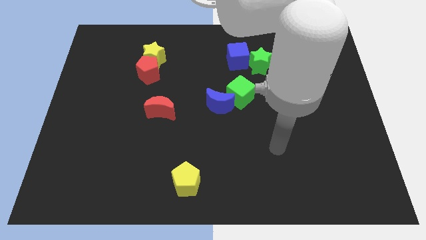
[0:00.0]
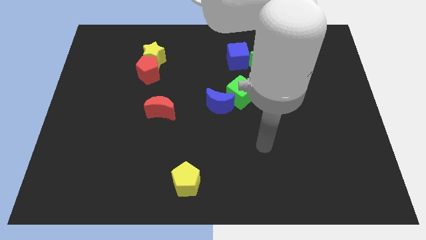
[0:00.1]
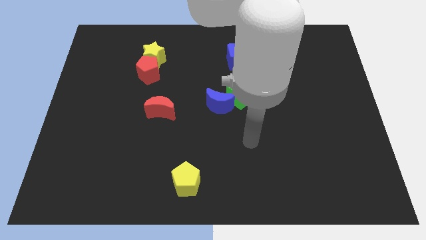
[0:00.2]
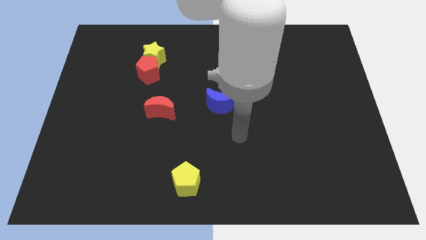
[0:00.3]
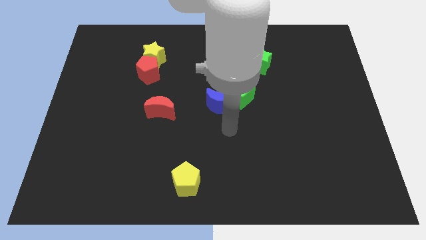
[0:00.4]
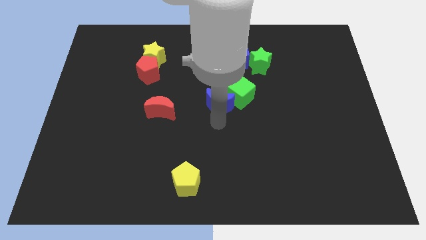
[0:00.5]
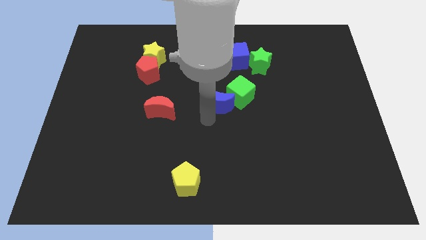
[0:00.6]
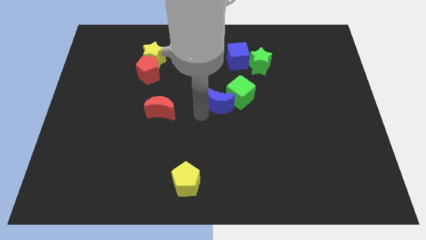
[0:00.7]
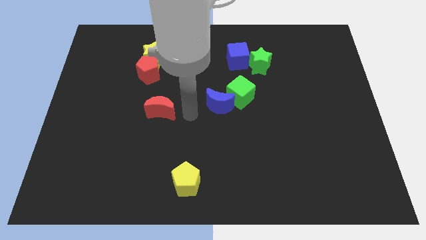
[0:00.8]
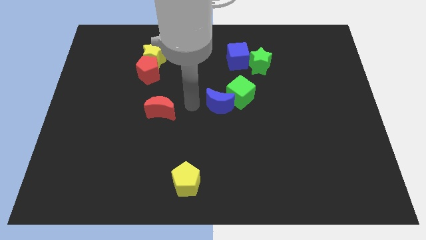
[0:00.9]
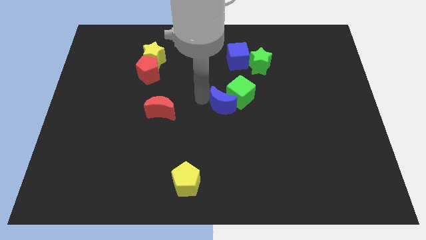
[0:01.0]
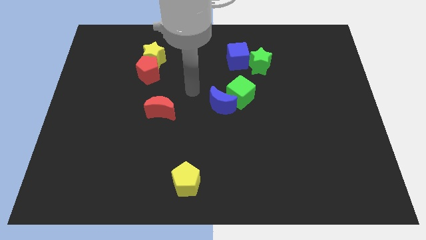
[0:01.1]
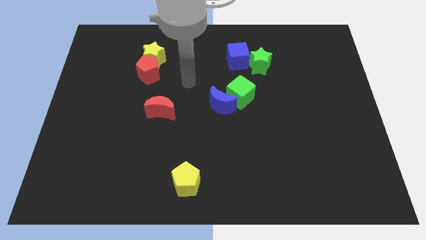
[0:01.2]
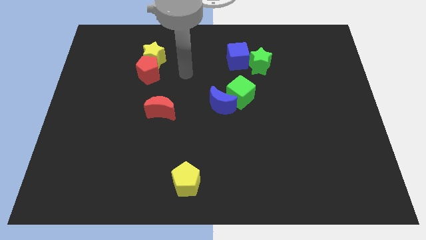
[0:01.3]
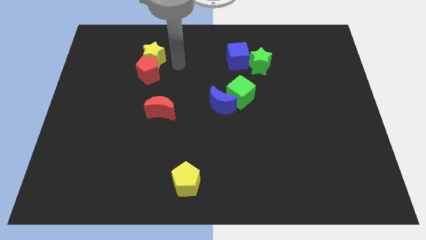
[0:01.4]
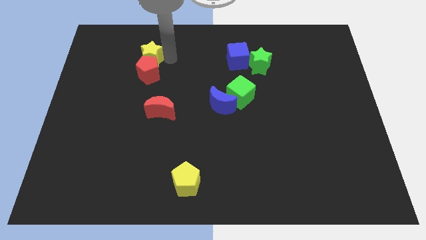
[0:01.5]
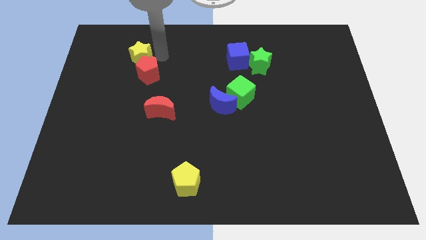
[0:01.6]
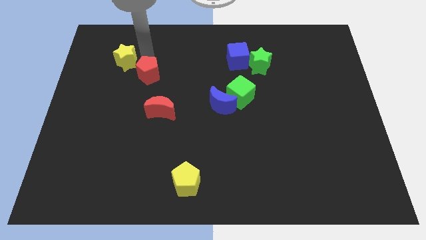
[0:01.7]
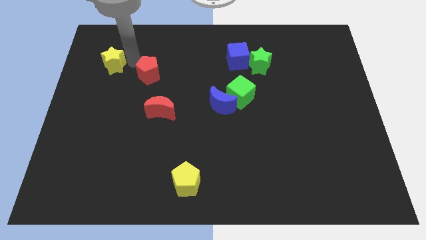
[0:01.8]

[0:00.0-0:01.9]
pull the red pentagon apart from the yellow star

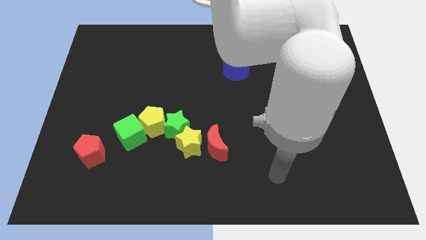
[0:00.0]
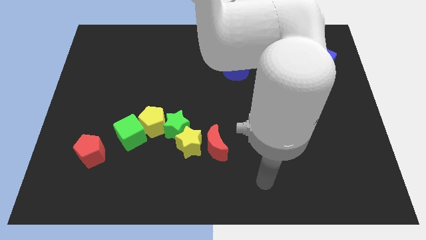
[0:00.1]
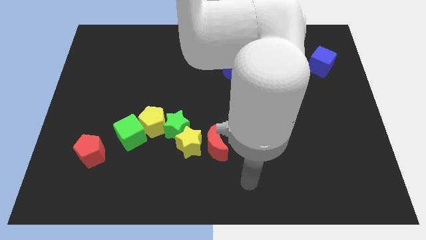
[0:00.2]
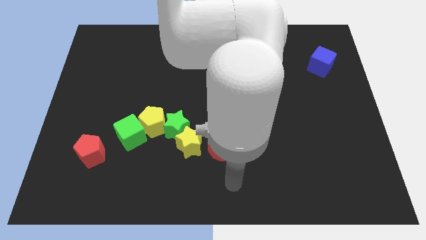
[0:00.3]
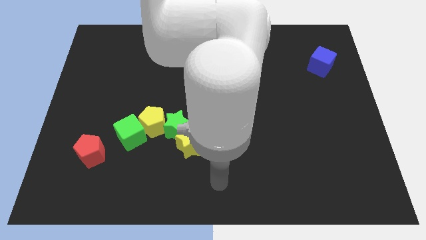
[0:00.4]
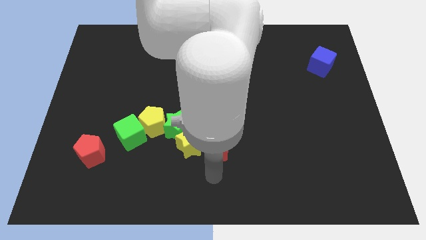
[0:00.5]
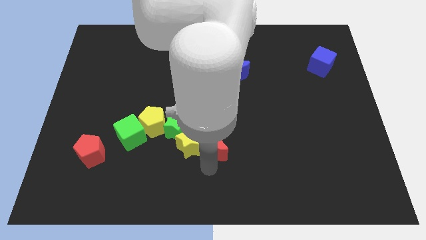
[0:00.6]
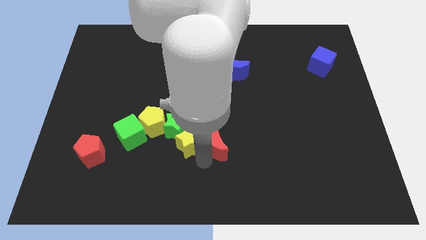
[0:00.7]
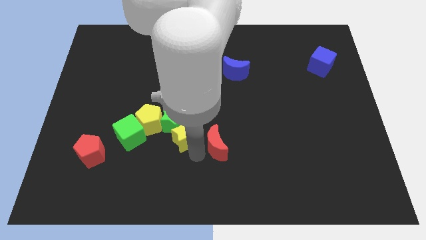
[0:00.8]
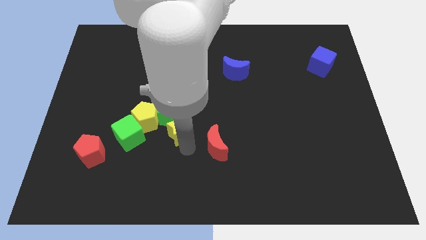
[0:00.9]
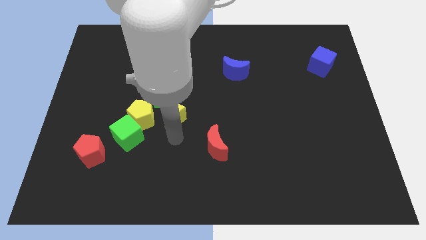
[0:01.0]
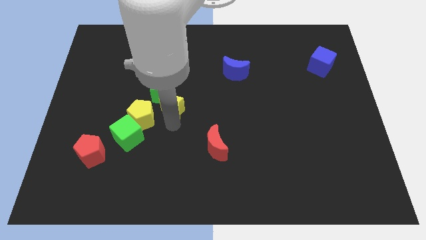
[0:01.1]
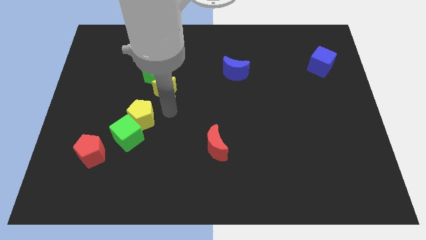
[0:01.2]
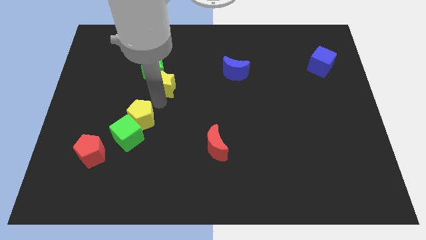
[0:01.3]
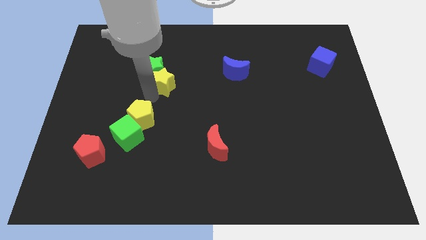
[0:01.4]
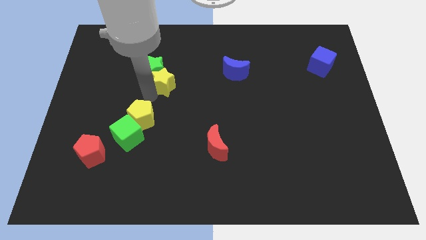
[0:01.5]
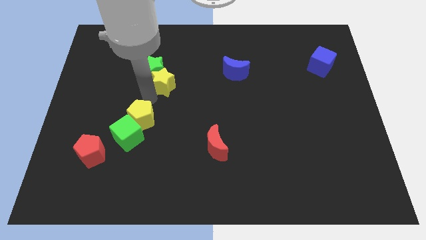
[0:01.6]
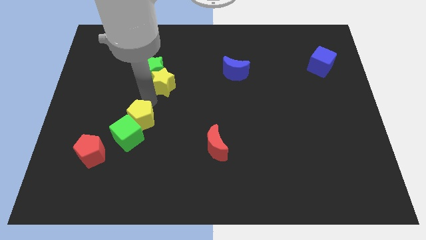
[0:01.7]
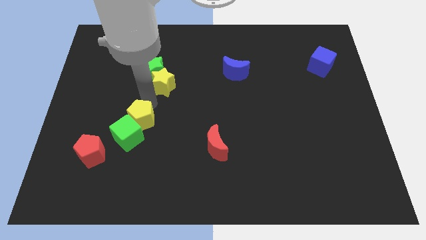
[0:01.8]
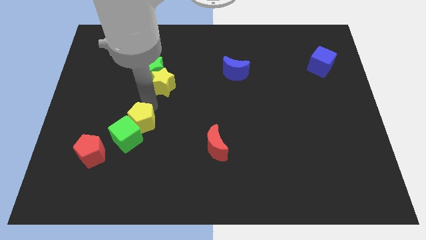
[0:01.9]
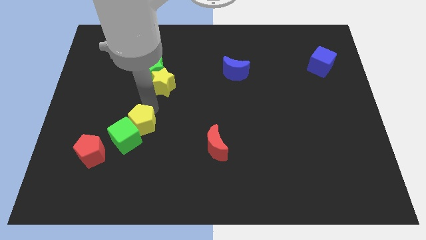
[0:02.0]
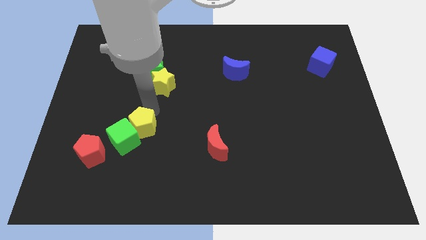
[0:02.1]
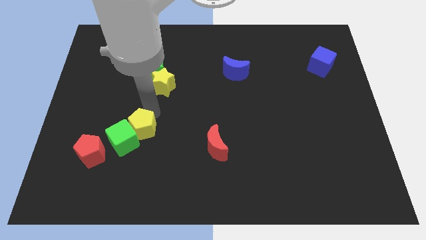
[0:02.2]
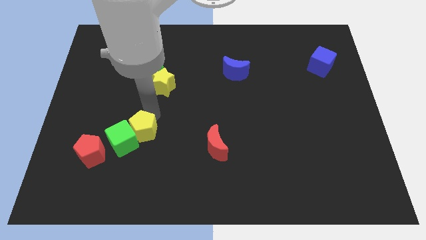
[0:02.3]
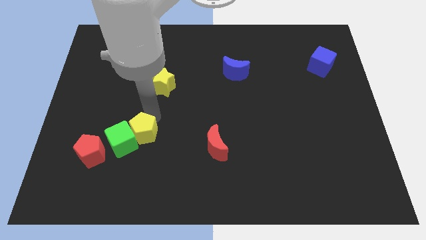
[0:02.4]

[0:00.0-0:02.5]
separate the yellow pentagon from the group of blocks

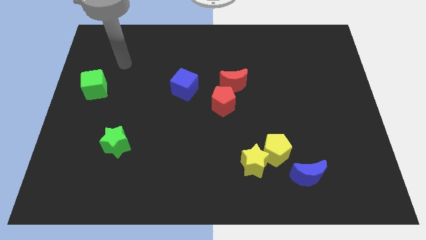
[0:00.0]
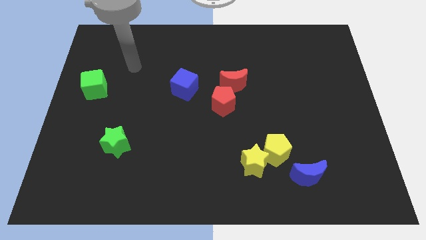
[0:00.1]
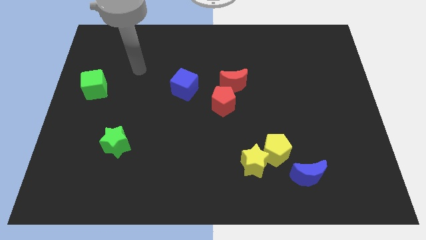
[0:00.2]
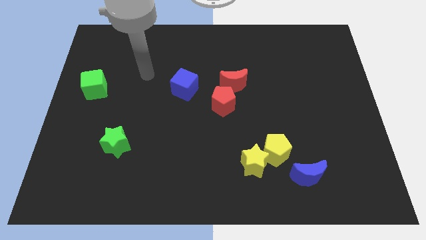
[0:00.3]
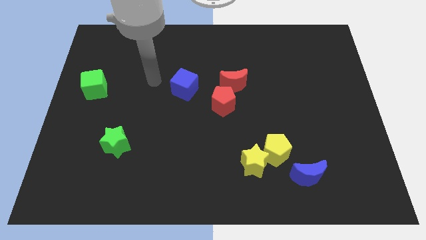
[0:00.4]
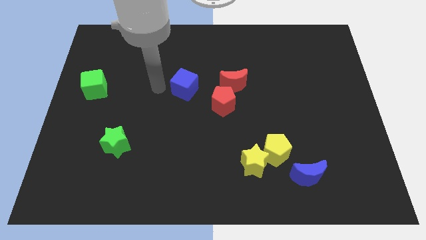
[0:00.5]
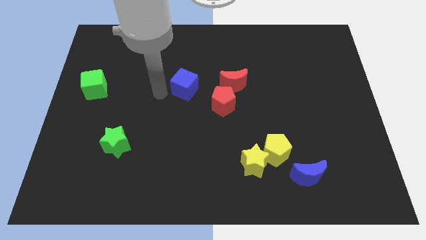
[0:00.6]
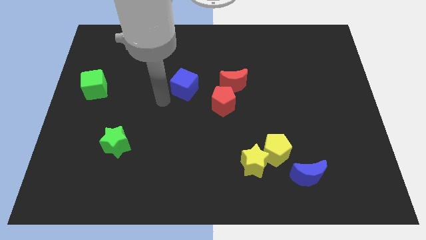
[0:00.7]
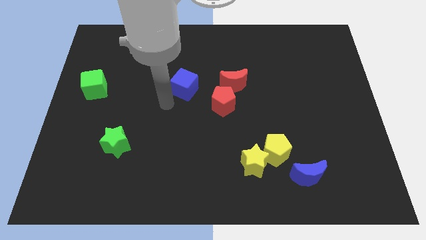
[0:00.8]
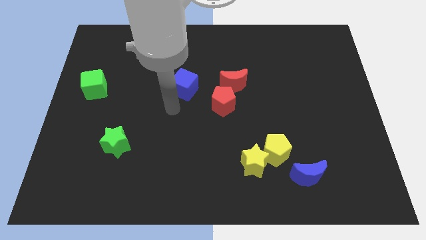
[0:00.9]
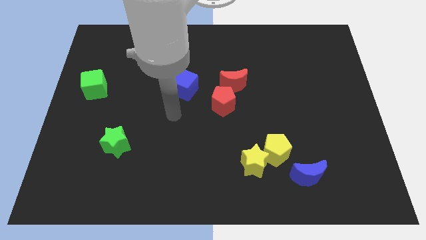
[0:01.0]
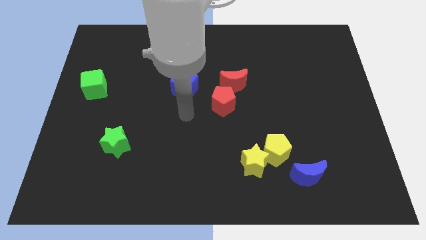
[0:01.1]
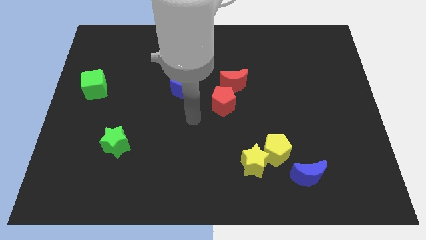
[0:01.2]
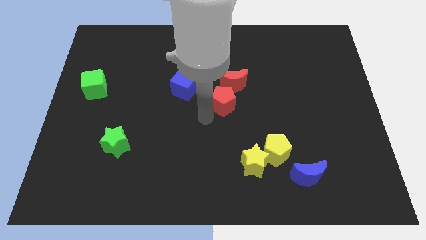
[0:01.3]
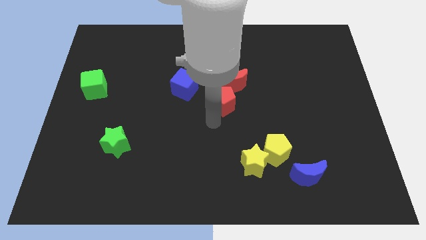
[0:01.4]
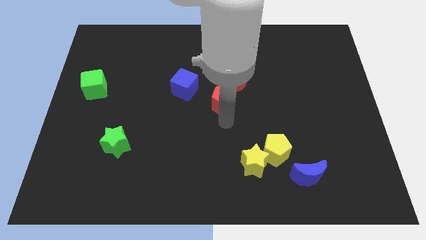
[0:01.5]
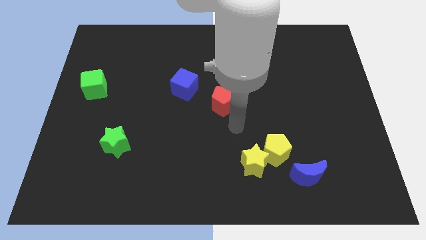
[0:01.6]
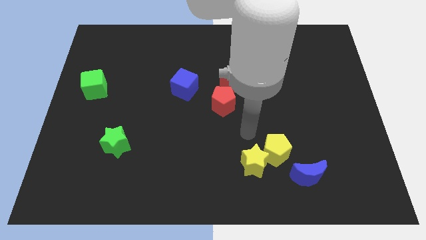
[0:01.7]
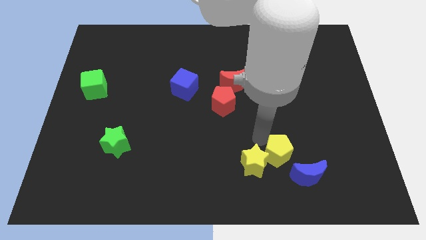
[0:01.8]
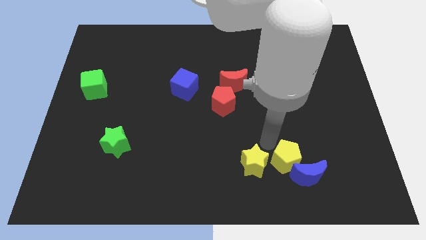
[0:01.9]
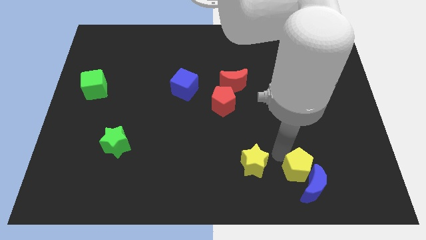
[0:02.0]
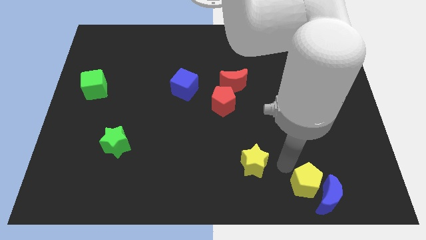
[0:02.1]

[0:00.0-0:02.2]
move the yellow star away from the yellow pentagon

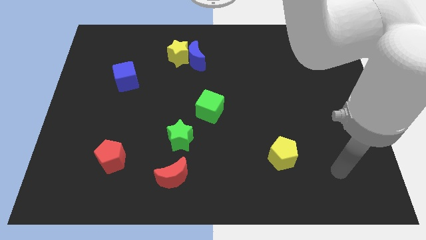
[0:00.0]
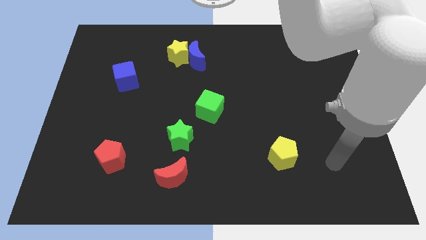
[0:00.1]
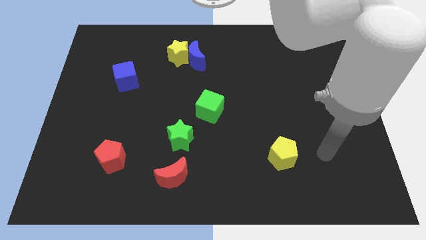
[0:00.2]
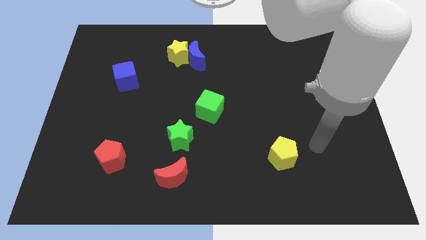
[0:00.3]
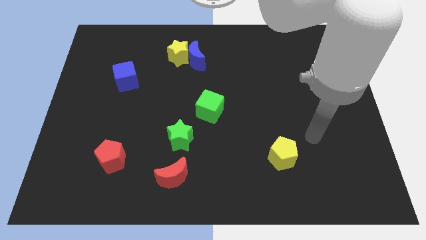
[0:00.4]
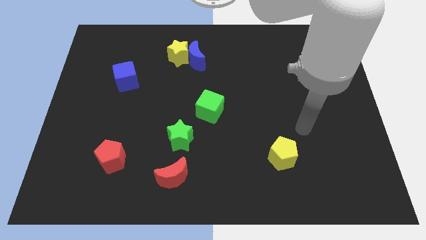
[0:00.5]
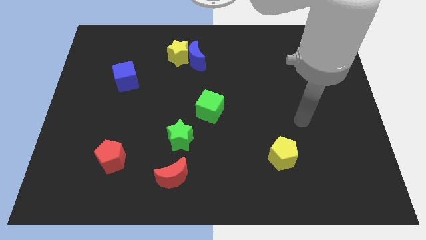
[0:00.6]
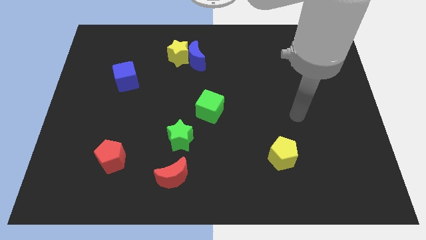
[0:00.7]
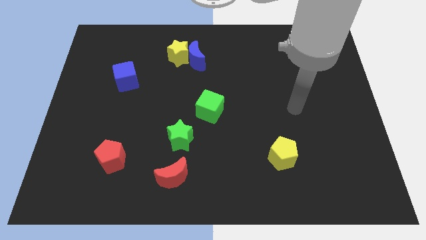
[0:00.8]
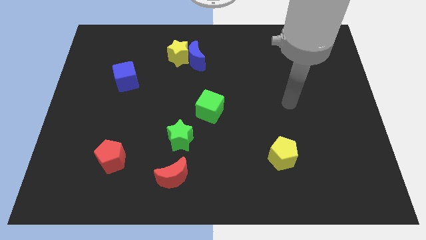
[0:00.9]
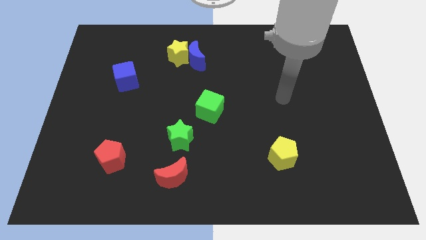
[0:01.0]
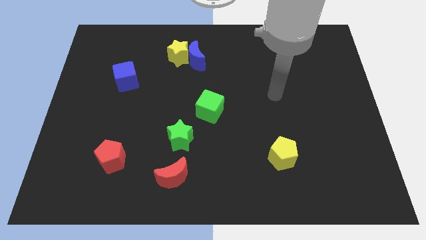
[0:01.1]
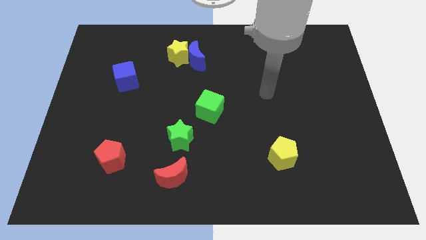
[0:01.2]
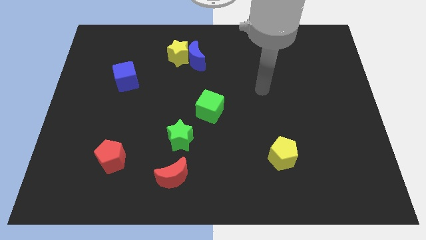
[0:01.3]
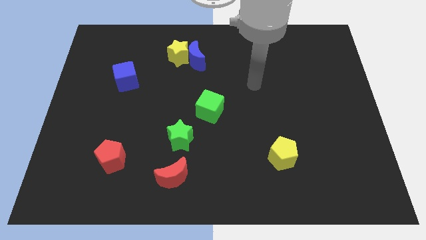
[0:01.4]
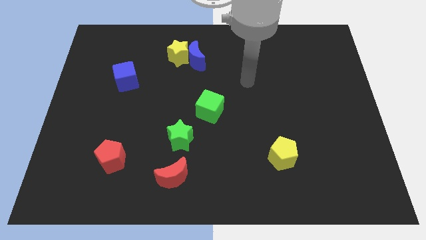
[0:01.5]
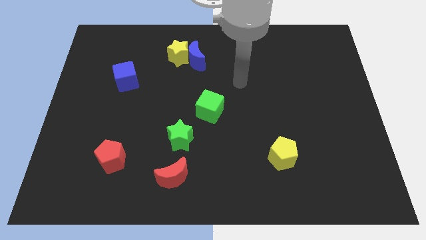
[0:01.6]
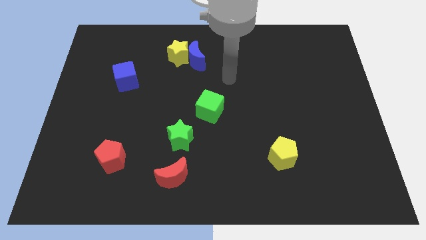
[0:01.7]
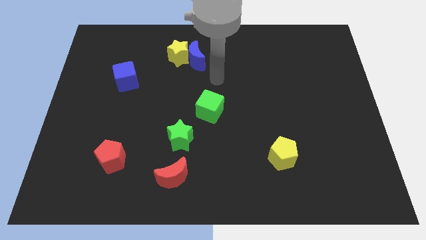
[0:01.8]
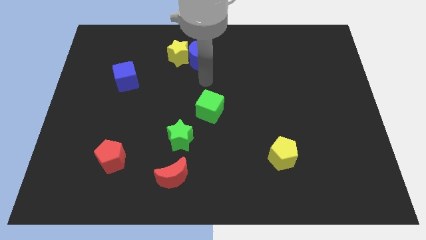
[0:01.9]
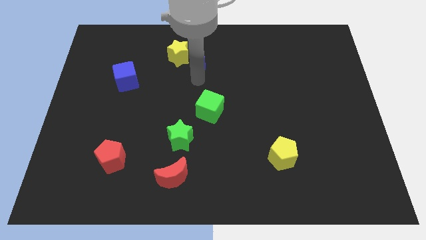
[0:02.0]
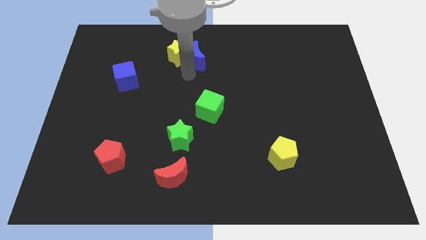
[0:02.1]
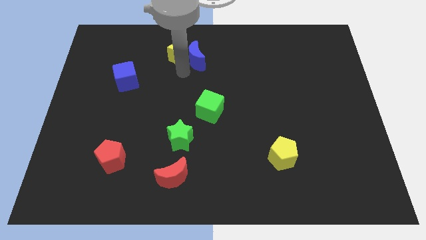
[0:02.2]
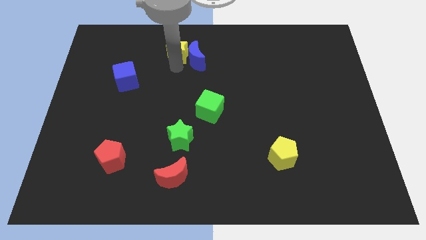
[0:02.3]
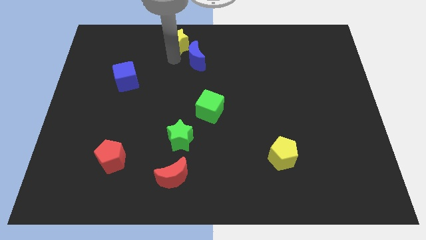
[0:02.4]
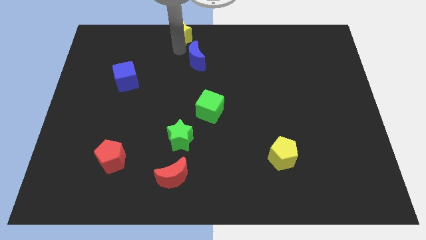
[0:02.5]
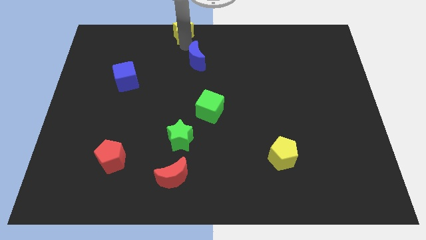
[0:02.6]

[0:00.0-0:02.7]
move the blue moon away from the yellow star

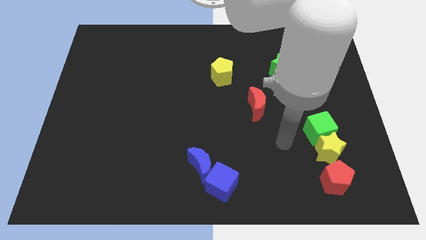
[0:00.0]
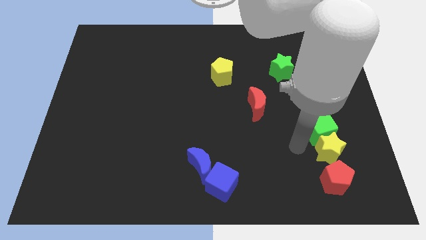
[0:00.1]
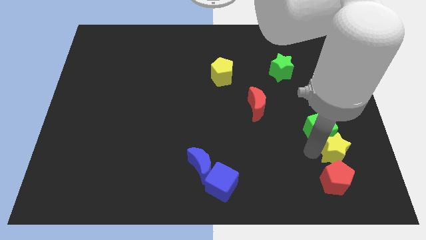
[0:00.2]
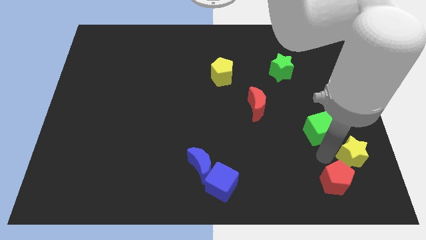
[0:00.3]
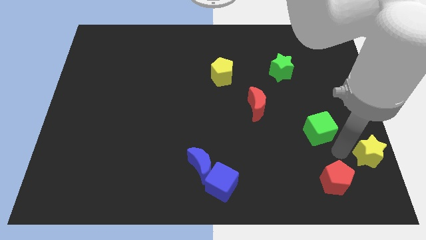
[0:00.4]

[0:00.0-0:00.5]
pull the green cube apart from the yellow star
